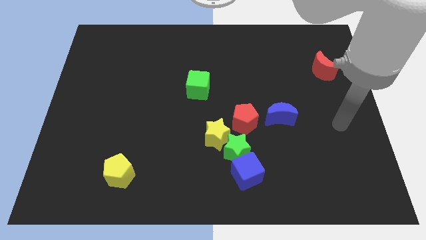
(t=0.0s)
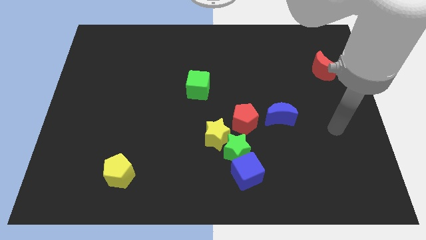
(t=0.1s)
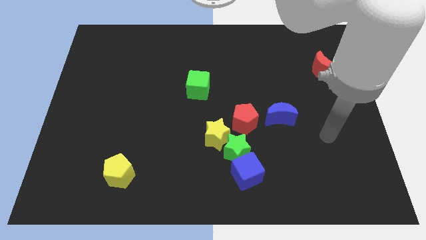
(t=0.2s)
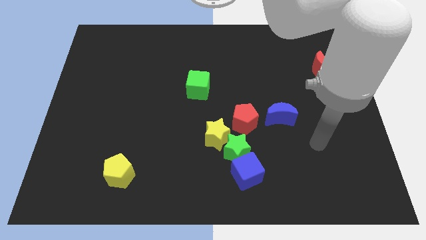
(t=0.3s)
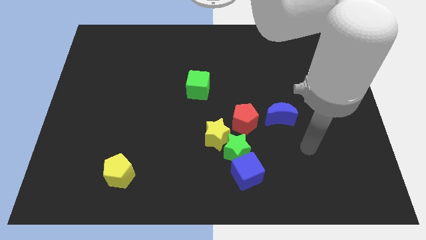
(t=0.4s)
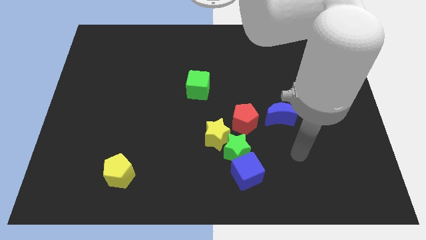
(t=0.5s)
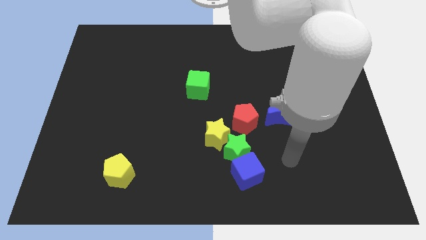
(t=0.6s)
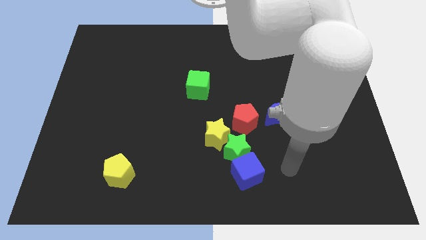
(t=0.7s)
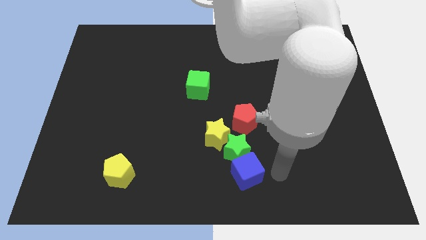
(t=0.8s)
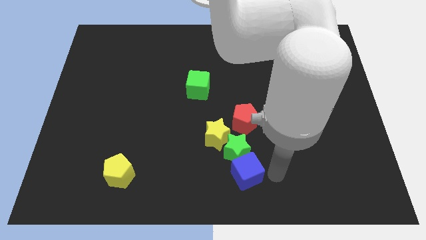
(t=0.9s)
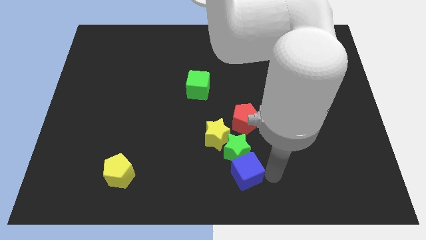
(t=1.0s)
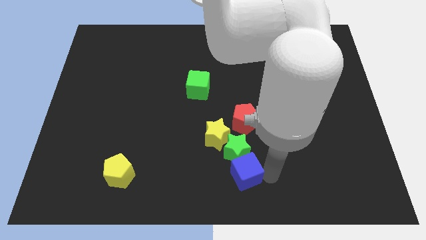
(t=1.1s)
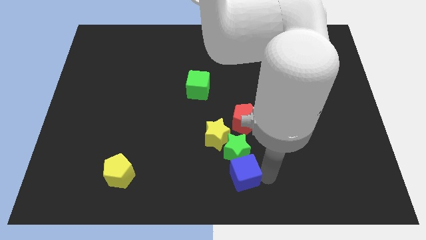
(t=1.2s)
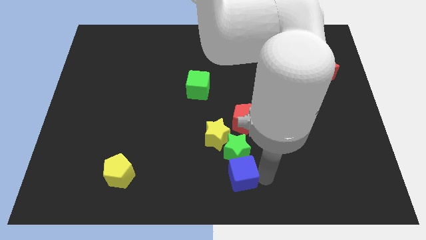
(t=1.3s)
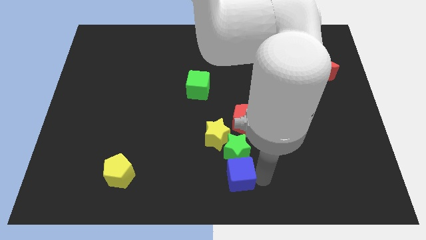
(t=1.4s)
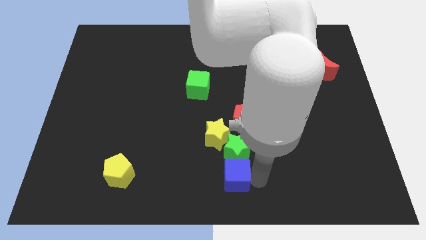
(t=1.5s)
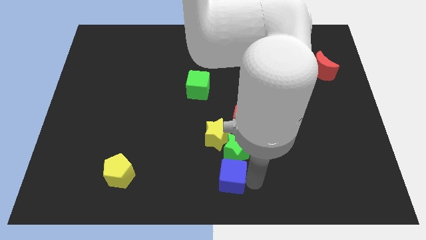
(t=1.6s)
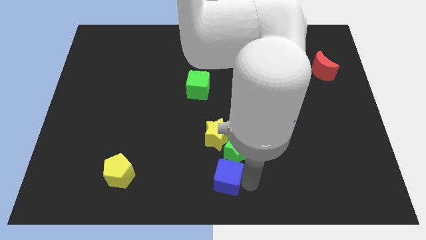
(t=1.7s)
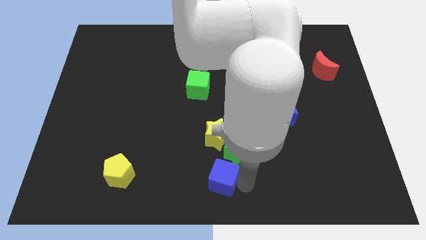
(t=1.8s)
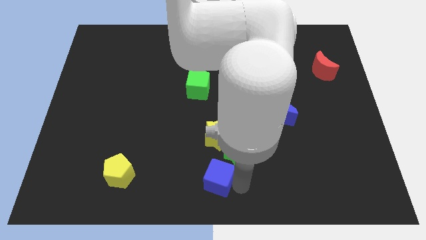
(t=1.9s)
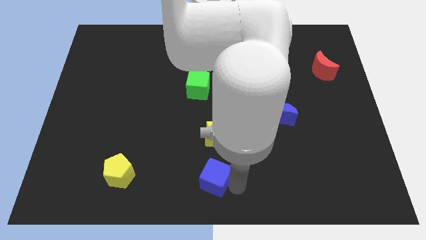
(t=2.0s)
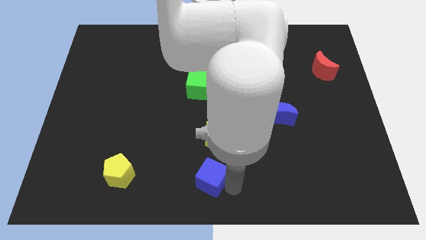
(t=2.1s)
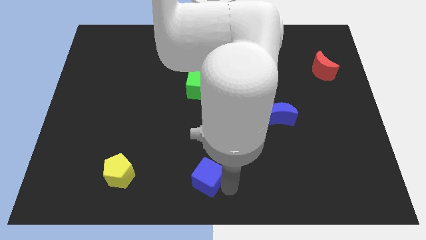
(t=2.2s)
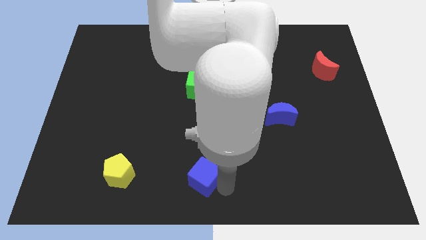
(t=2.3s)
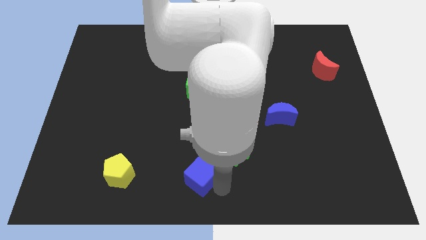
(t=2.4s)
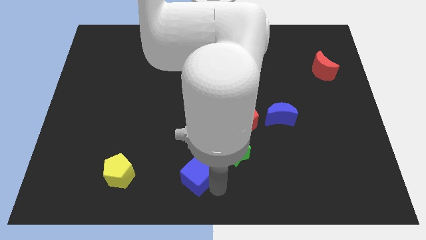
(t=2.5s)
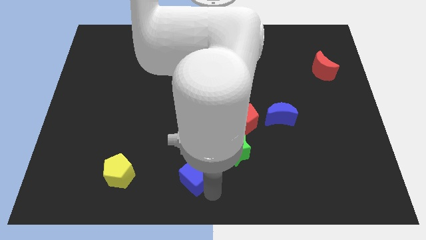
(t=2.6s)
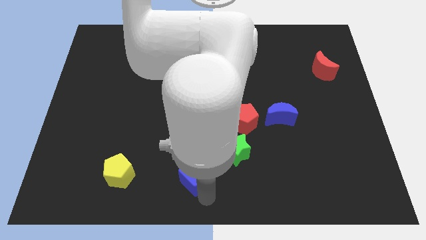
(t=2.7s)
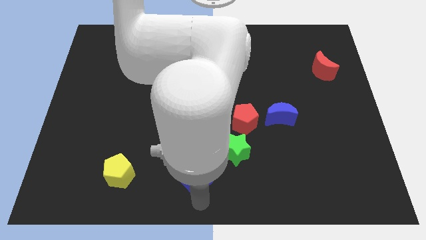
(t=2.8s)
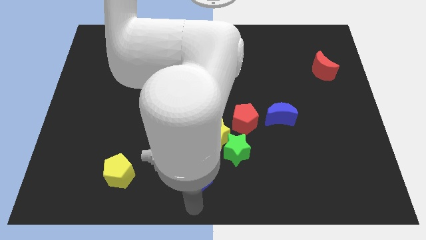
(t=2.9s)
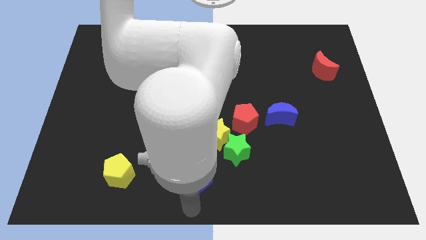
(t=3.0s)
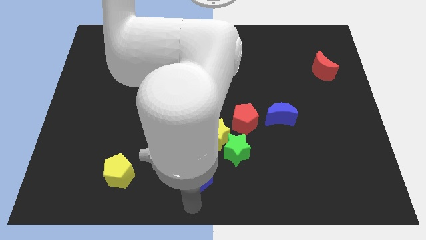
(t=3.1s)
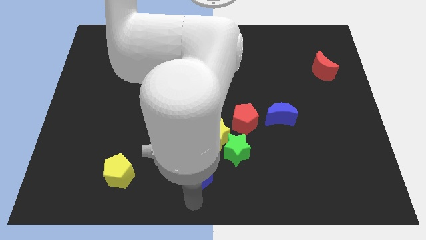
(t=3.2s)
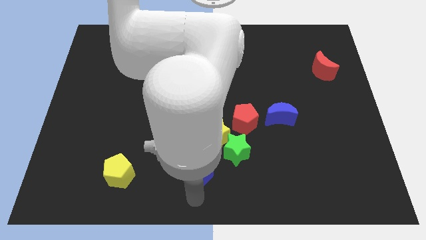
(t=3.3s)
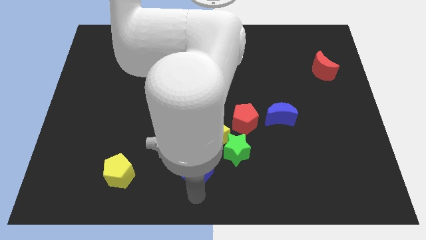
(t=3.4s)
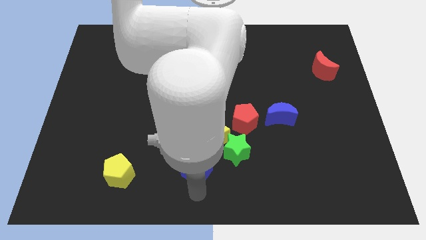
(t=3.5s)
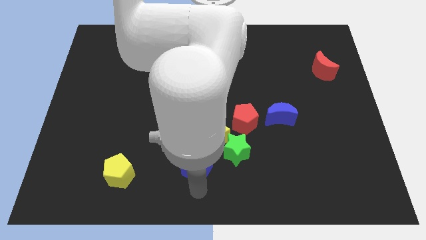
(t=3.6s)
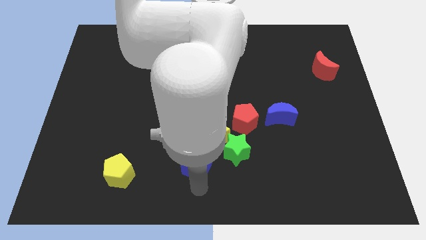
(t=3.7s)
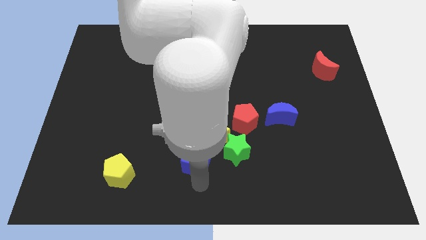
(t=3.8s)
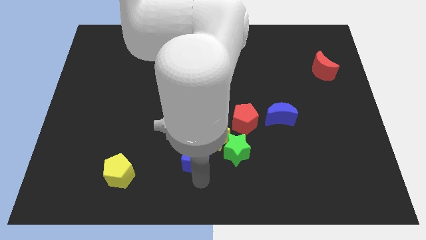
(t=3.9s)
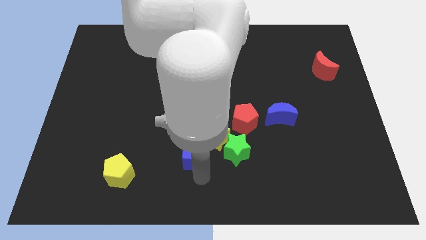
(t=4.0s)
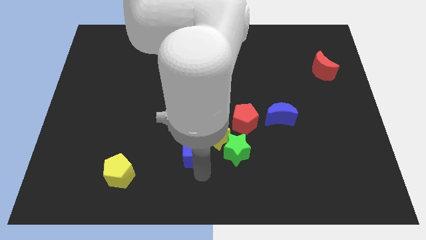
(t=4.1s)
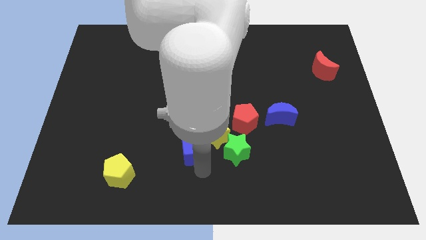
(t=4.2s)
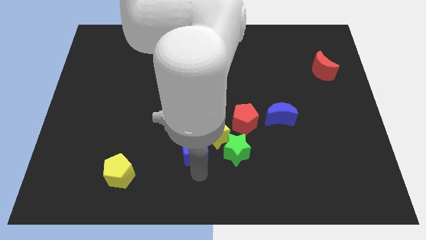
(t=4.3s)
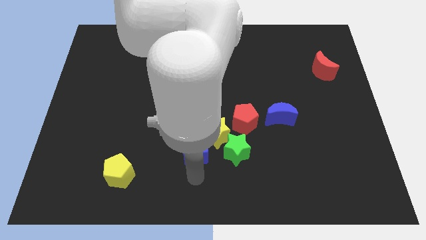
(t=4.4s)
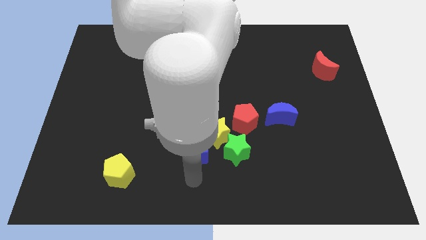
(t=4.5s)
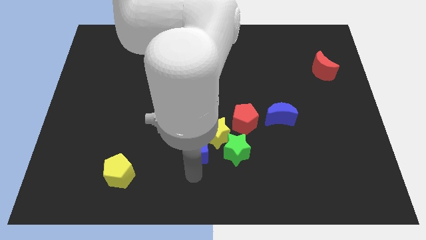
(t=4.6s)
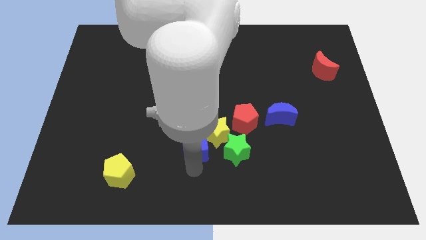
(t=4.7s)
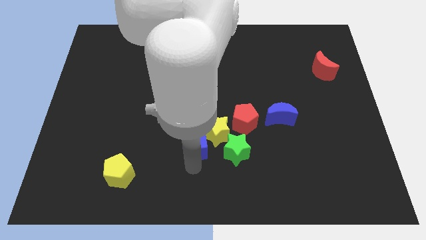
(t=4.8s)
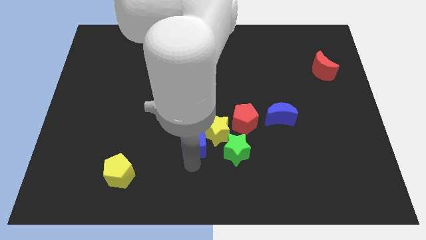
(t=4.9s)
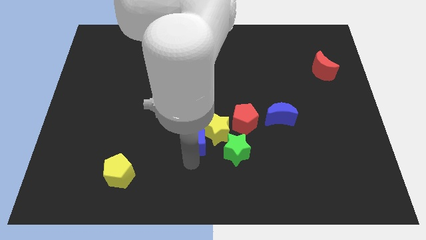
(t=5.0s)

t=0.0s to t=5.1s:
push the blue cube to the center

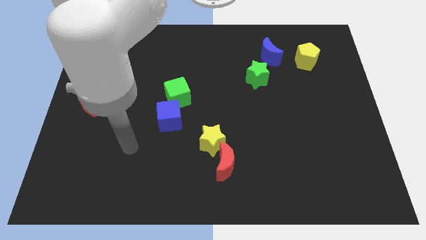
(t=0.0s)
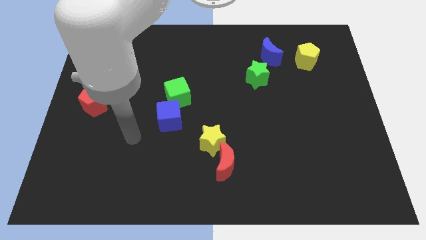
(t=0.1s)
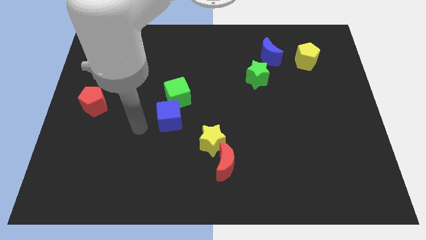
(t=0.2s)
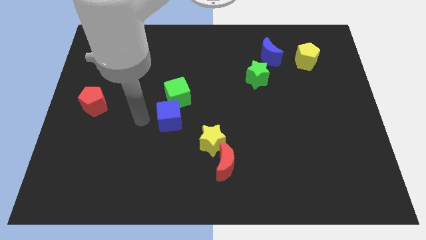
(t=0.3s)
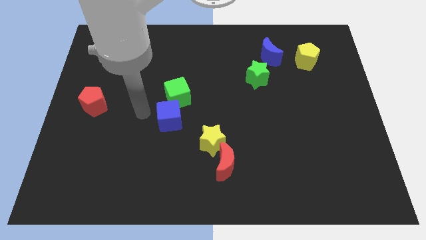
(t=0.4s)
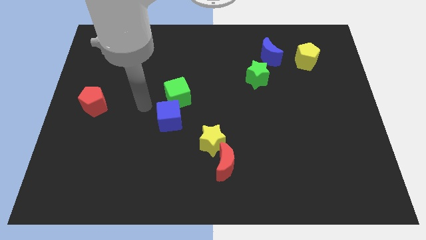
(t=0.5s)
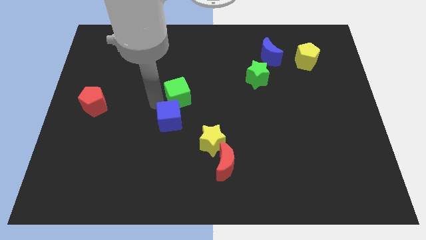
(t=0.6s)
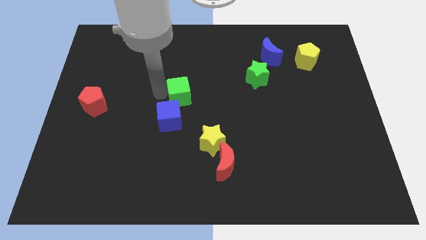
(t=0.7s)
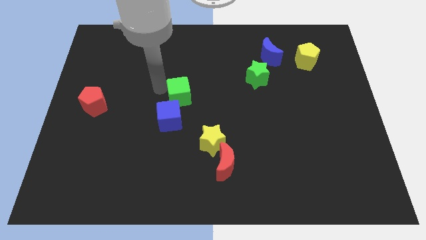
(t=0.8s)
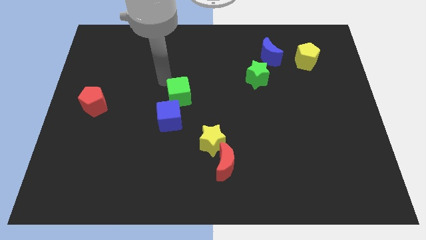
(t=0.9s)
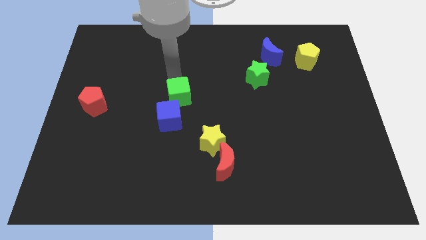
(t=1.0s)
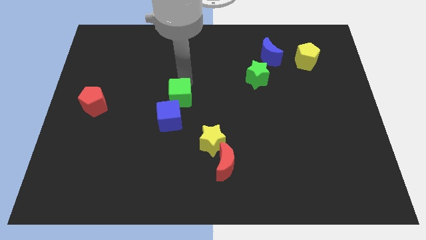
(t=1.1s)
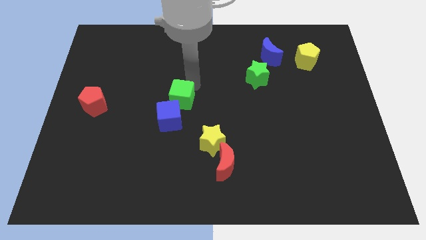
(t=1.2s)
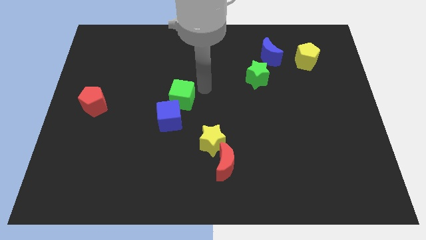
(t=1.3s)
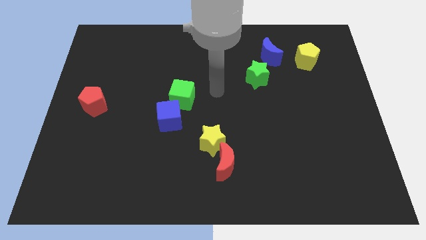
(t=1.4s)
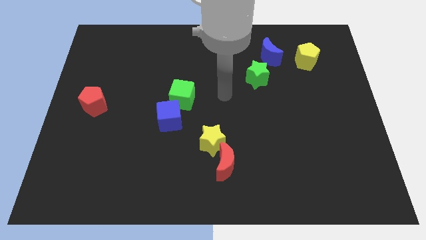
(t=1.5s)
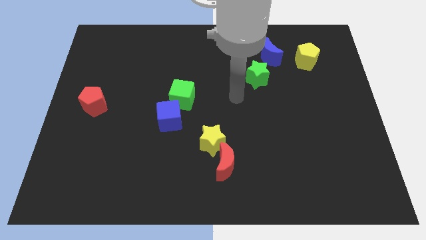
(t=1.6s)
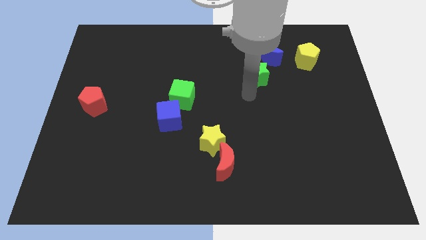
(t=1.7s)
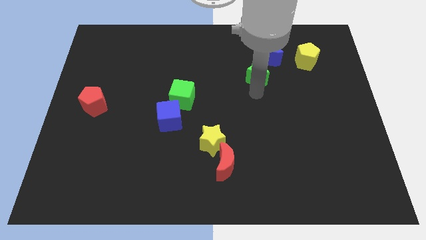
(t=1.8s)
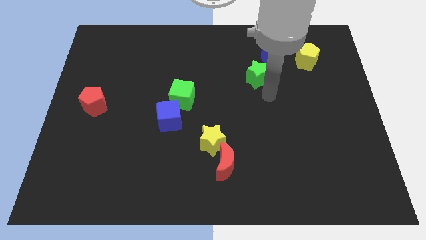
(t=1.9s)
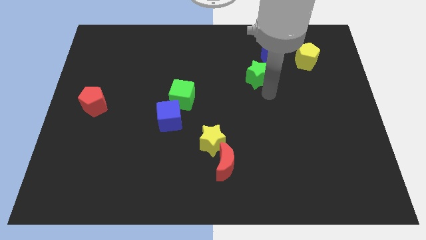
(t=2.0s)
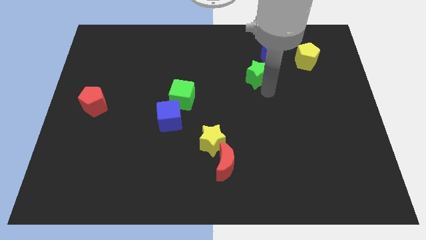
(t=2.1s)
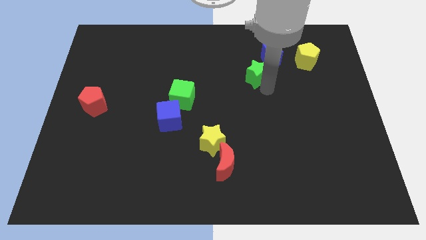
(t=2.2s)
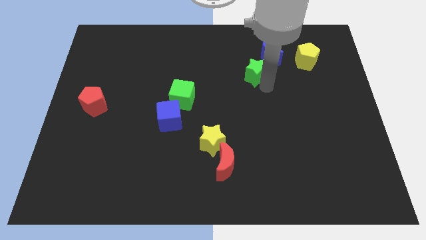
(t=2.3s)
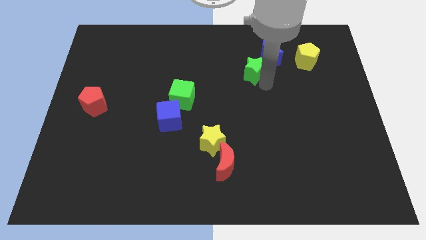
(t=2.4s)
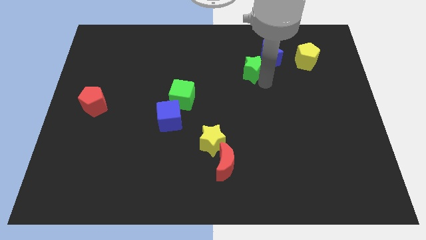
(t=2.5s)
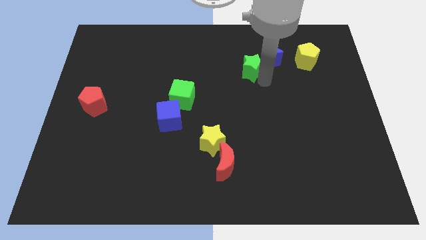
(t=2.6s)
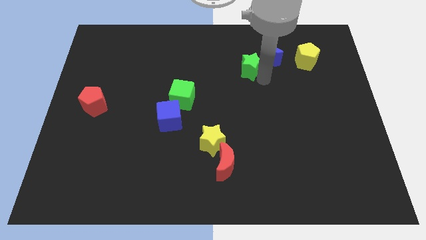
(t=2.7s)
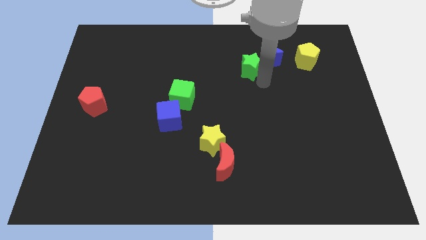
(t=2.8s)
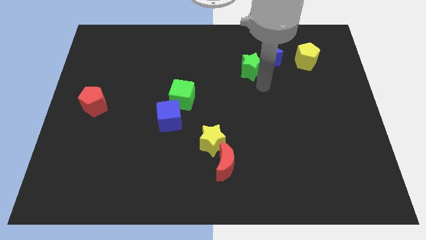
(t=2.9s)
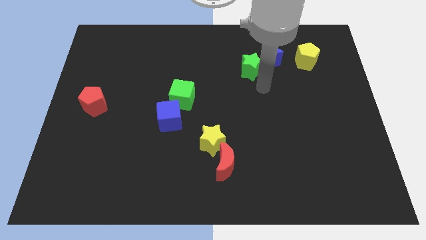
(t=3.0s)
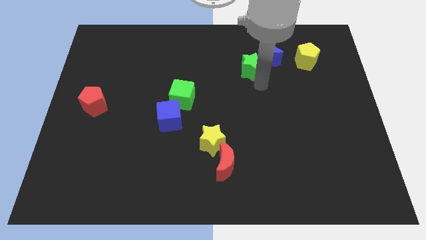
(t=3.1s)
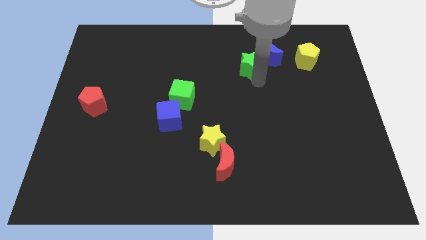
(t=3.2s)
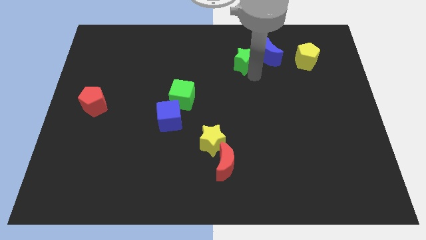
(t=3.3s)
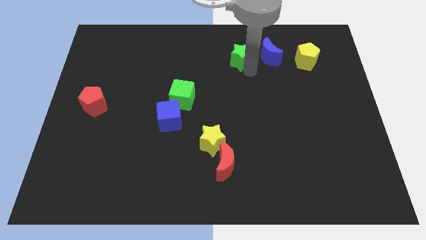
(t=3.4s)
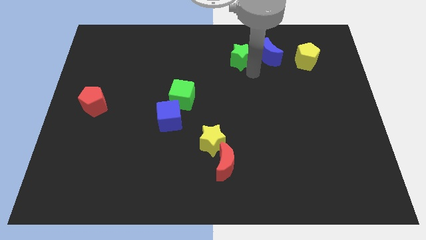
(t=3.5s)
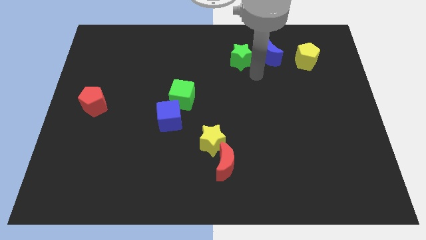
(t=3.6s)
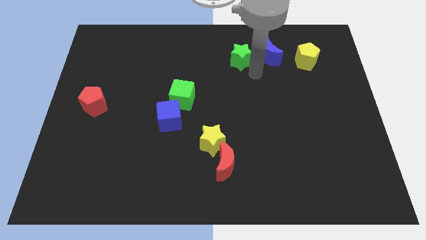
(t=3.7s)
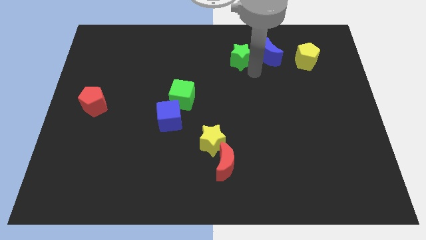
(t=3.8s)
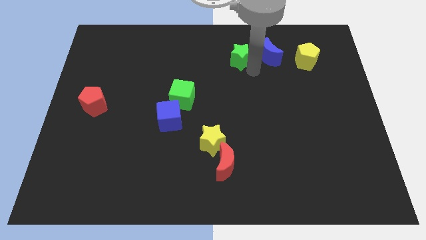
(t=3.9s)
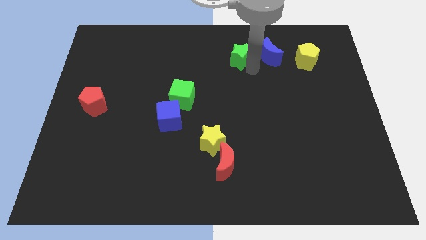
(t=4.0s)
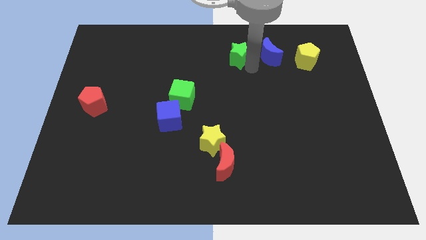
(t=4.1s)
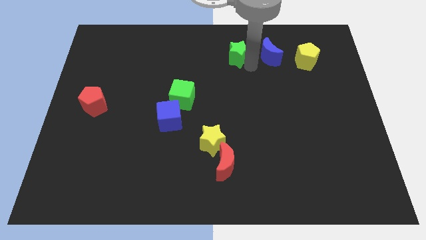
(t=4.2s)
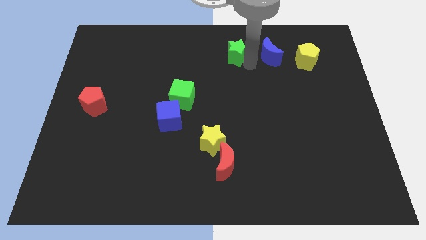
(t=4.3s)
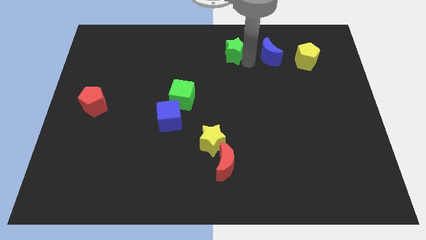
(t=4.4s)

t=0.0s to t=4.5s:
move the green star to the top
